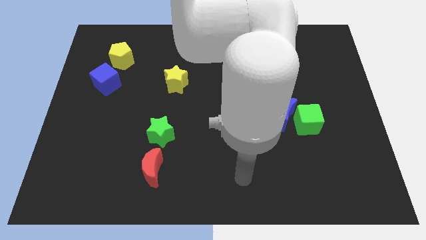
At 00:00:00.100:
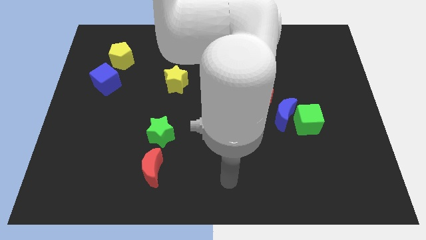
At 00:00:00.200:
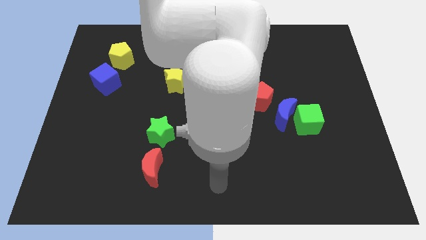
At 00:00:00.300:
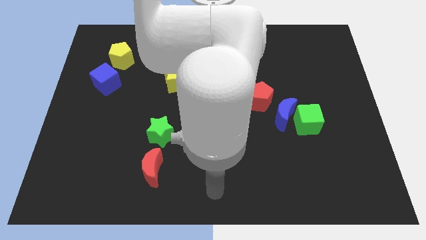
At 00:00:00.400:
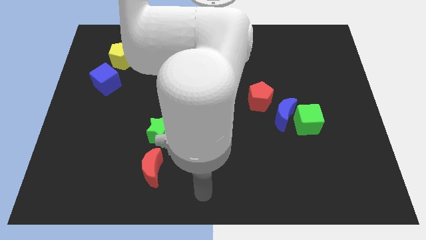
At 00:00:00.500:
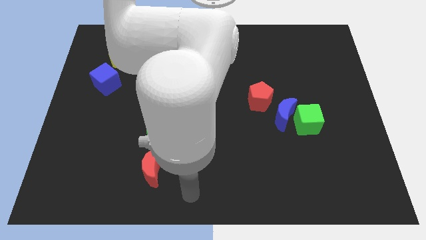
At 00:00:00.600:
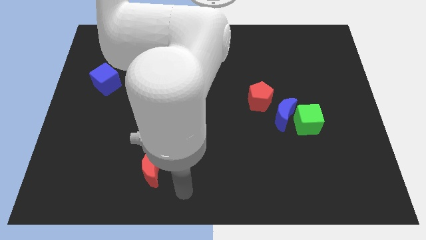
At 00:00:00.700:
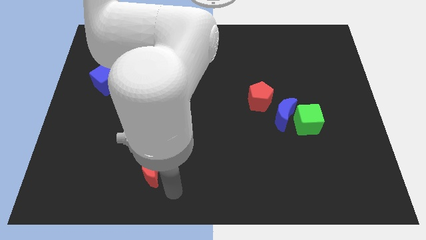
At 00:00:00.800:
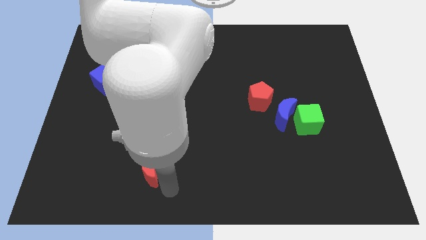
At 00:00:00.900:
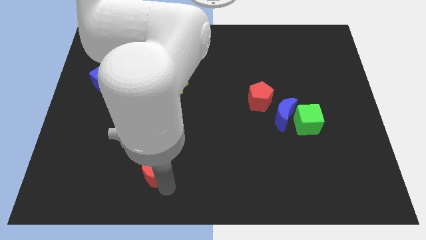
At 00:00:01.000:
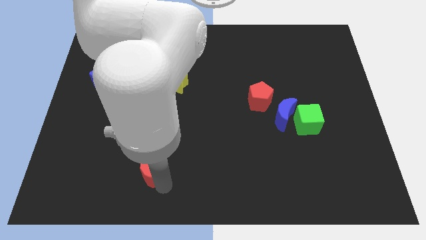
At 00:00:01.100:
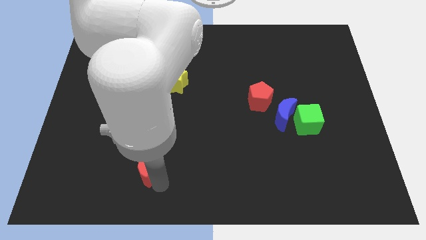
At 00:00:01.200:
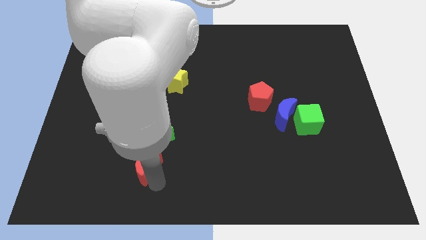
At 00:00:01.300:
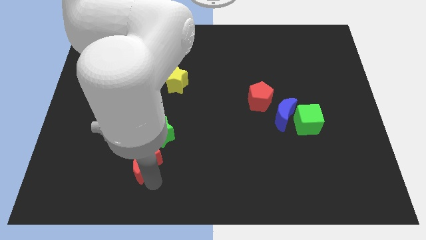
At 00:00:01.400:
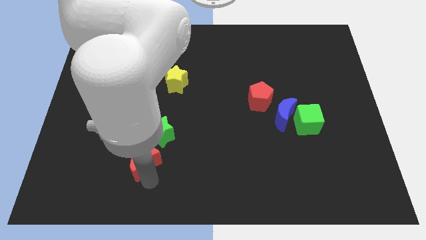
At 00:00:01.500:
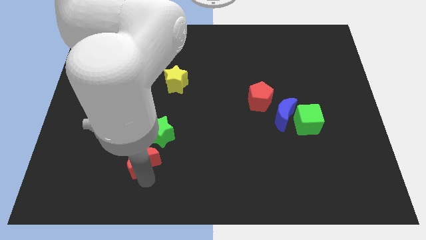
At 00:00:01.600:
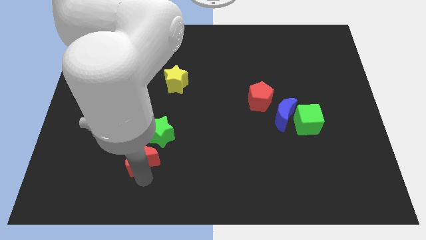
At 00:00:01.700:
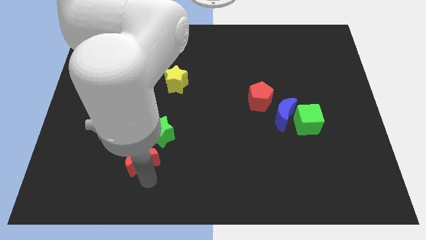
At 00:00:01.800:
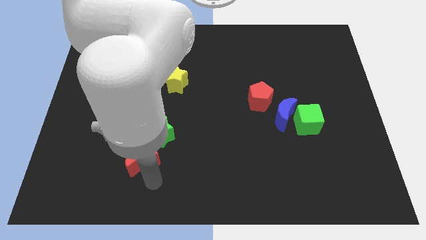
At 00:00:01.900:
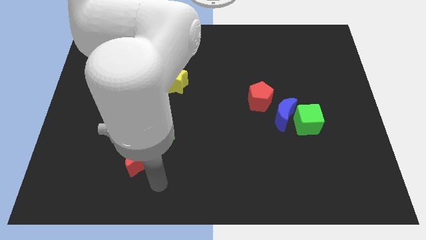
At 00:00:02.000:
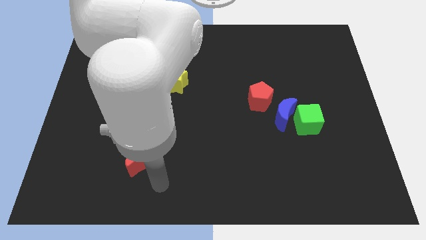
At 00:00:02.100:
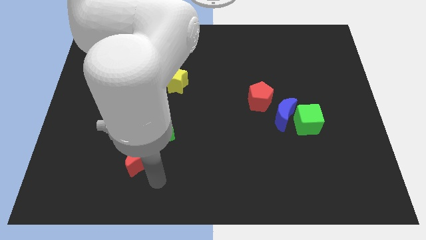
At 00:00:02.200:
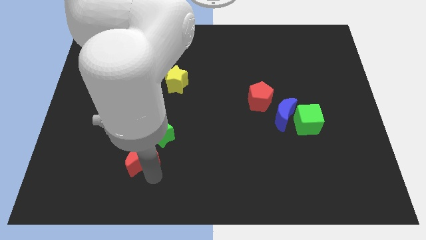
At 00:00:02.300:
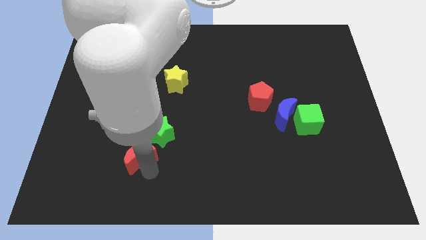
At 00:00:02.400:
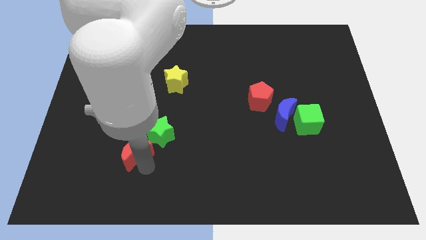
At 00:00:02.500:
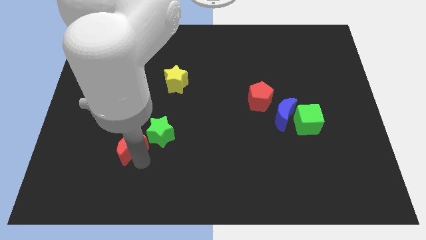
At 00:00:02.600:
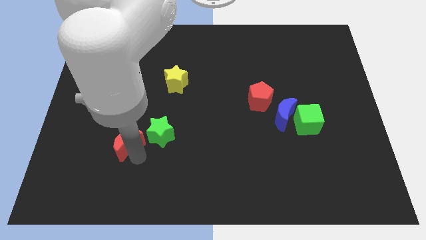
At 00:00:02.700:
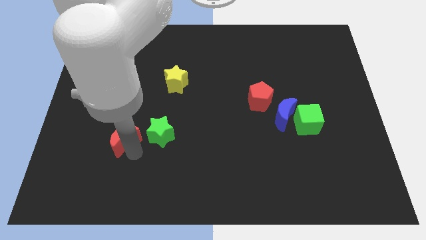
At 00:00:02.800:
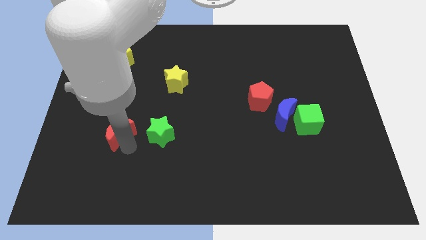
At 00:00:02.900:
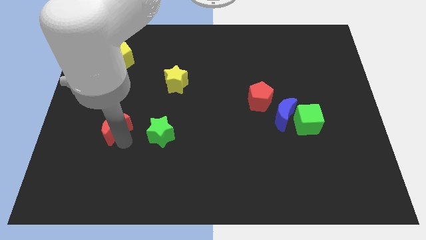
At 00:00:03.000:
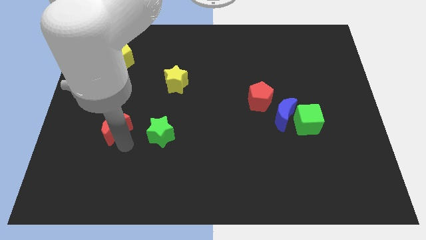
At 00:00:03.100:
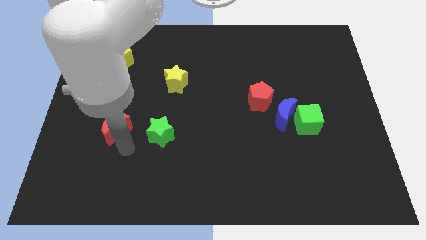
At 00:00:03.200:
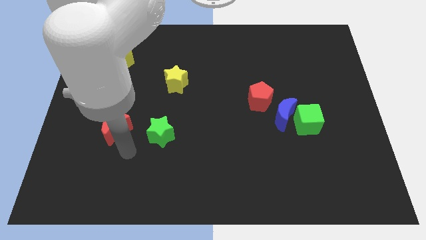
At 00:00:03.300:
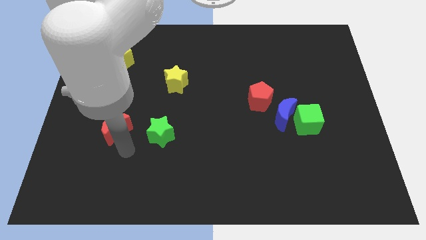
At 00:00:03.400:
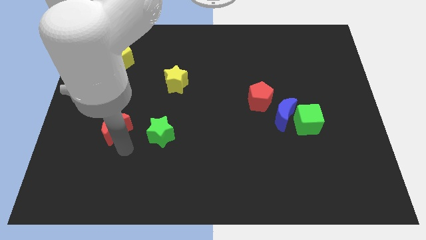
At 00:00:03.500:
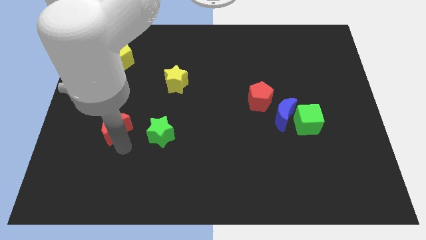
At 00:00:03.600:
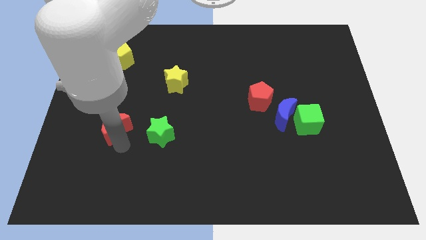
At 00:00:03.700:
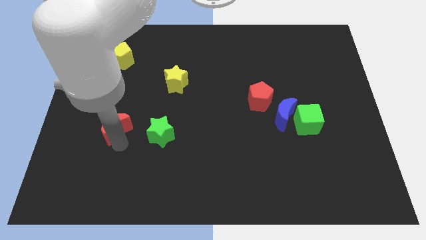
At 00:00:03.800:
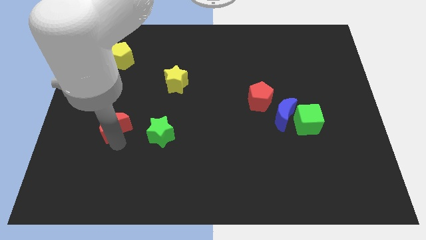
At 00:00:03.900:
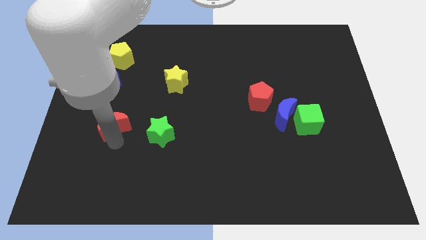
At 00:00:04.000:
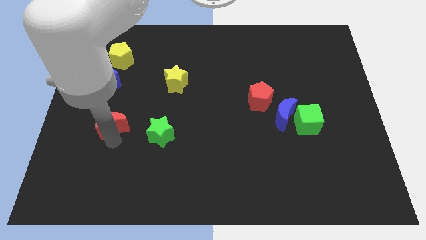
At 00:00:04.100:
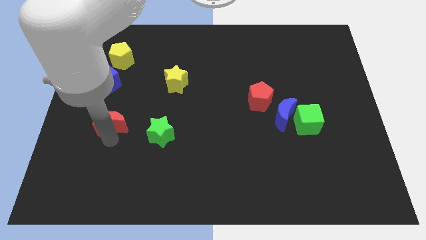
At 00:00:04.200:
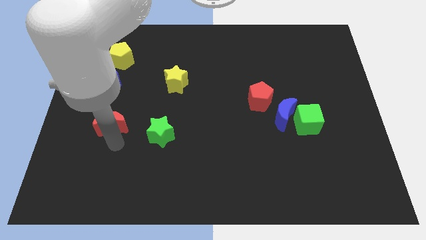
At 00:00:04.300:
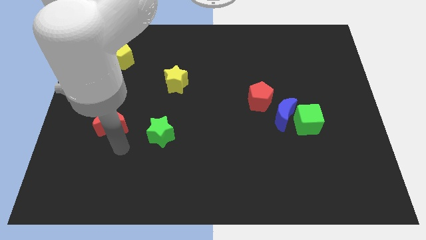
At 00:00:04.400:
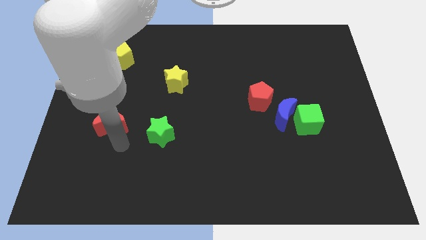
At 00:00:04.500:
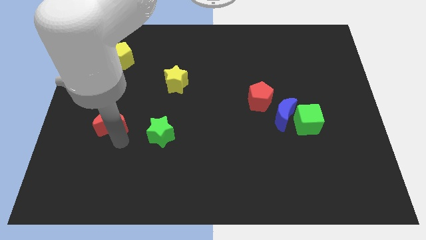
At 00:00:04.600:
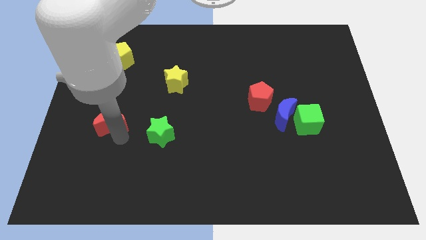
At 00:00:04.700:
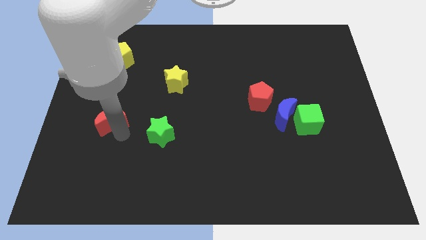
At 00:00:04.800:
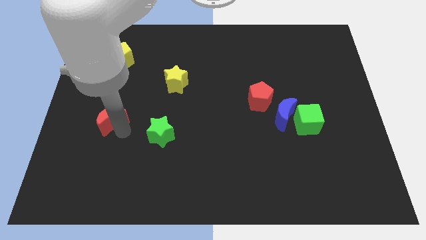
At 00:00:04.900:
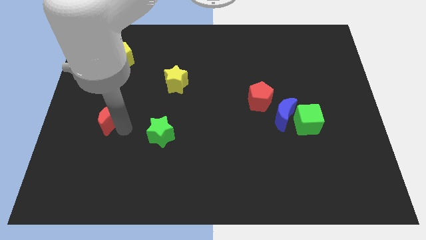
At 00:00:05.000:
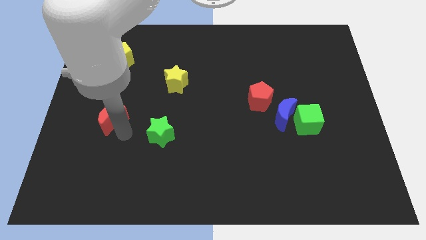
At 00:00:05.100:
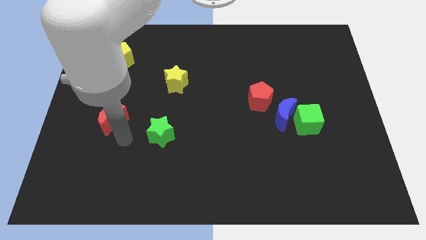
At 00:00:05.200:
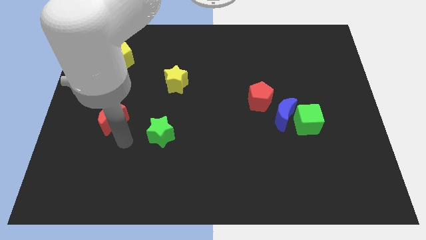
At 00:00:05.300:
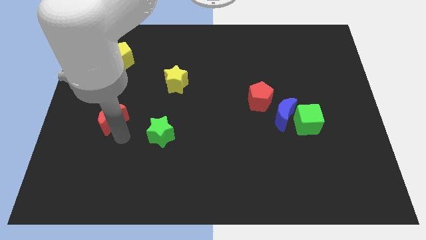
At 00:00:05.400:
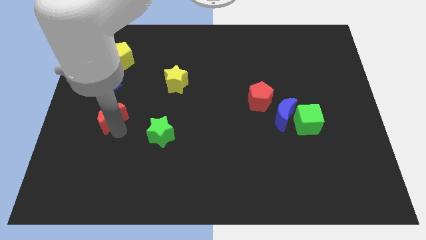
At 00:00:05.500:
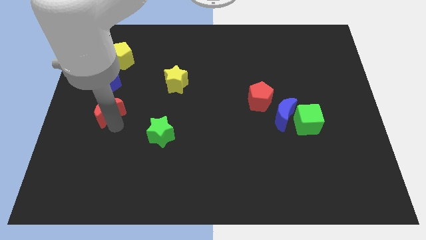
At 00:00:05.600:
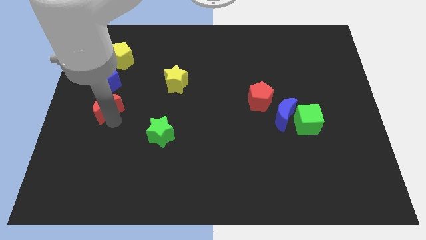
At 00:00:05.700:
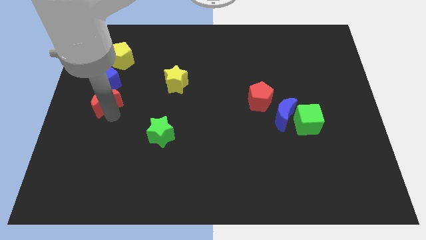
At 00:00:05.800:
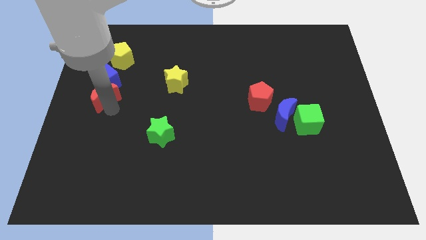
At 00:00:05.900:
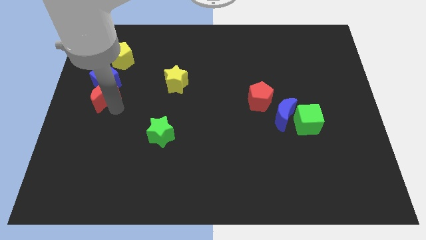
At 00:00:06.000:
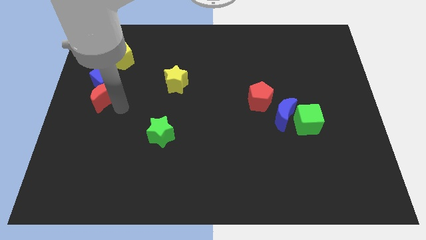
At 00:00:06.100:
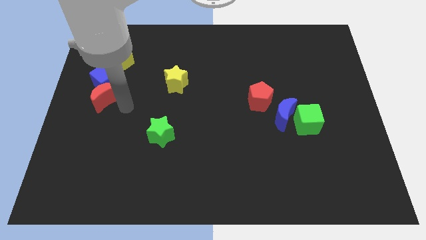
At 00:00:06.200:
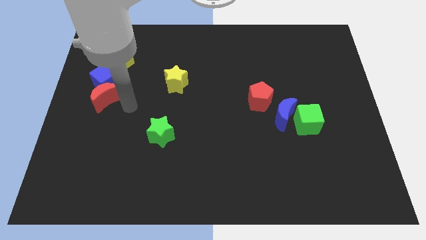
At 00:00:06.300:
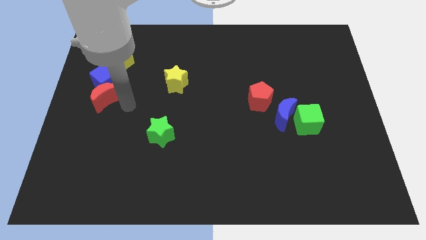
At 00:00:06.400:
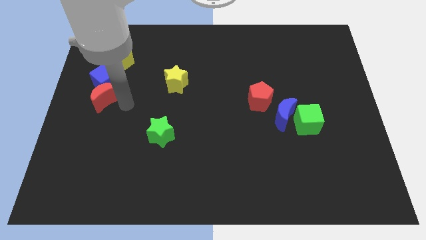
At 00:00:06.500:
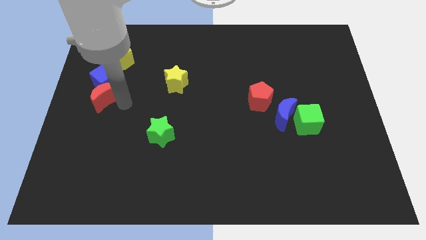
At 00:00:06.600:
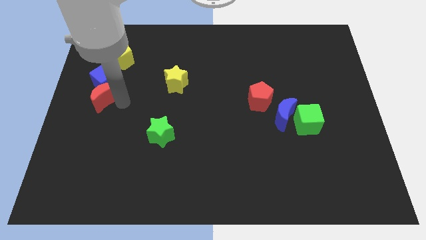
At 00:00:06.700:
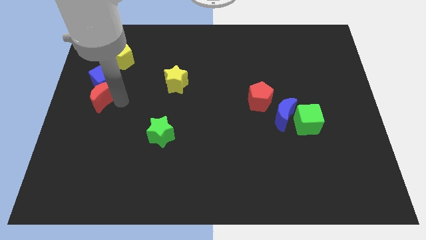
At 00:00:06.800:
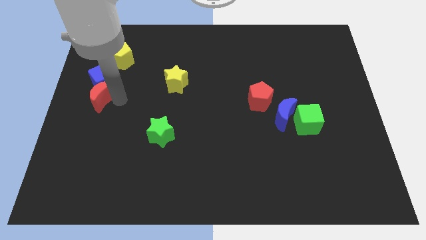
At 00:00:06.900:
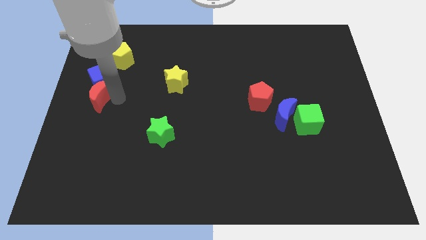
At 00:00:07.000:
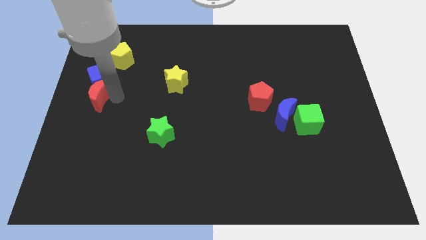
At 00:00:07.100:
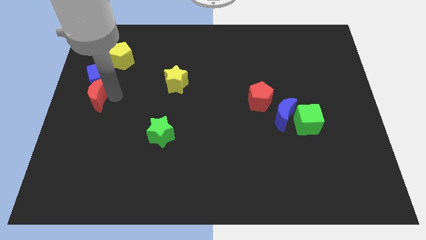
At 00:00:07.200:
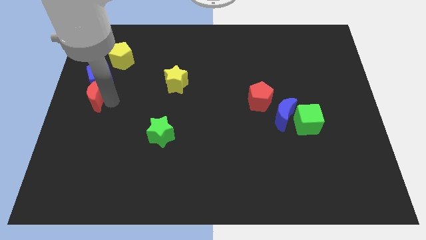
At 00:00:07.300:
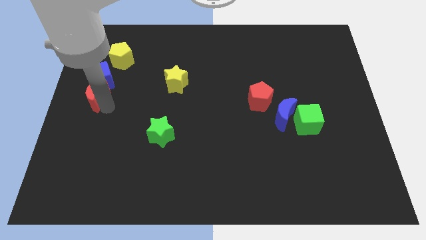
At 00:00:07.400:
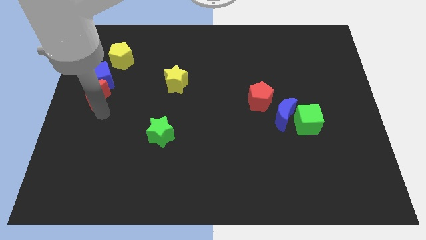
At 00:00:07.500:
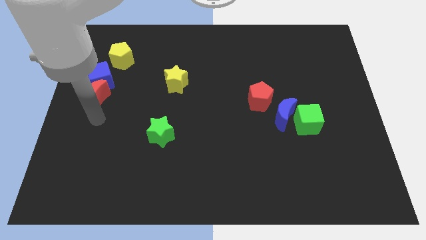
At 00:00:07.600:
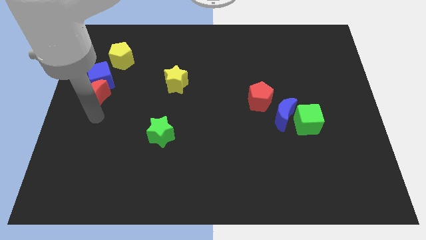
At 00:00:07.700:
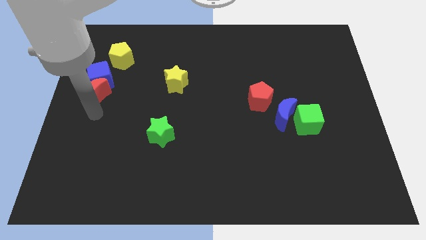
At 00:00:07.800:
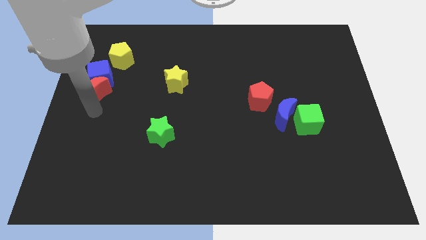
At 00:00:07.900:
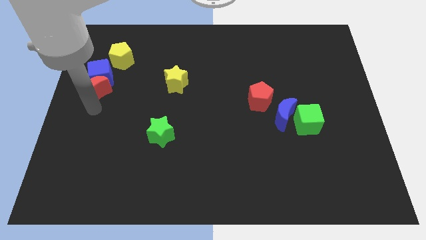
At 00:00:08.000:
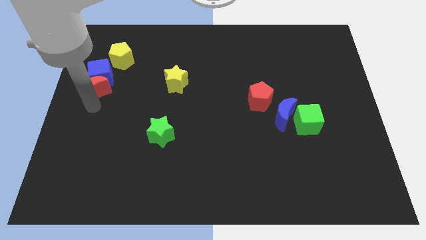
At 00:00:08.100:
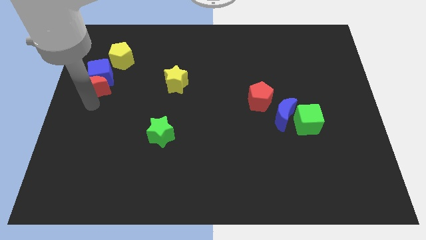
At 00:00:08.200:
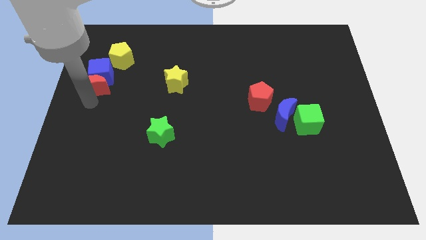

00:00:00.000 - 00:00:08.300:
push the red moon to the bottom left side of the yellow pentagon
